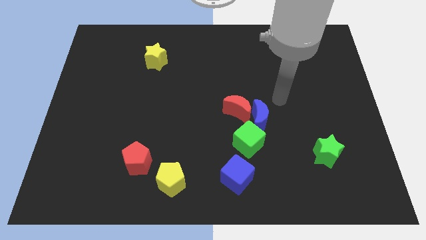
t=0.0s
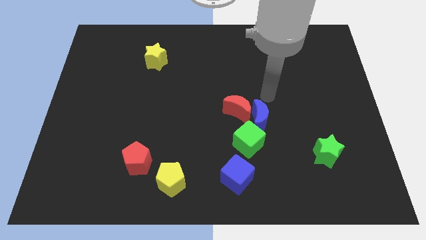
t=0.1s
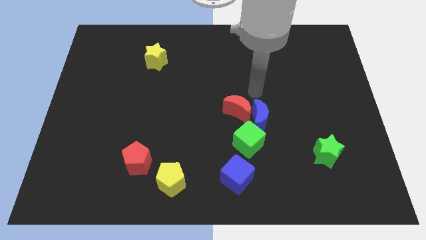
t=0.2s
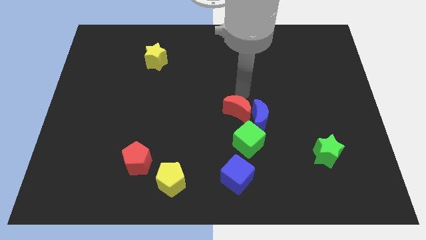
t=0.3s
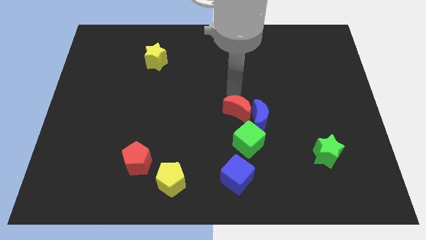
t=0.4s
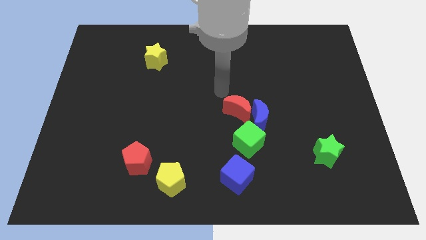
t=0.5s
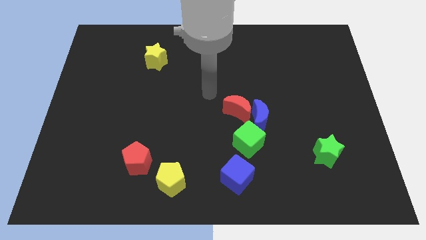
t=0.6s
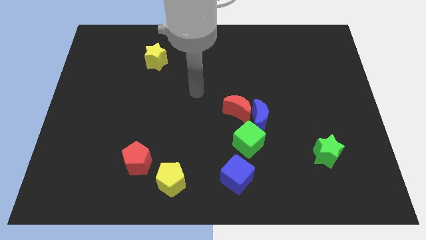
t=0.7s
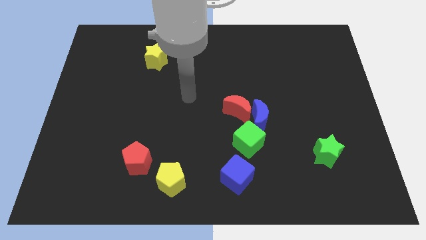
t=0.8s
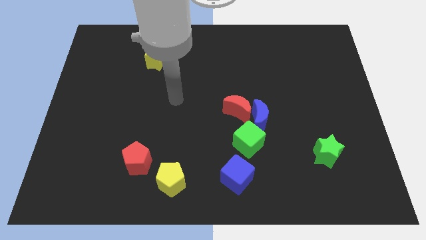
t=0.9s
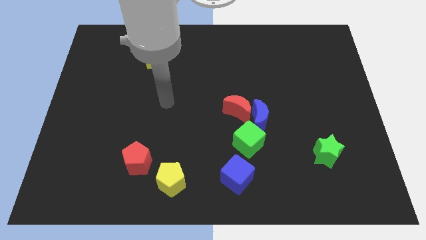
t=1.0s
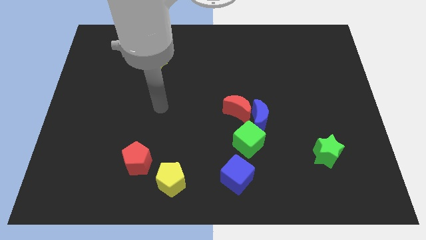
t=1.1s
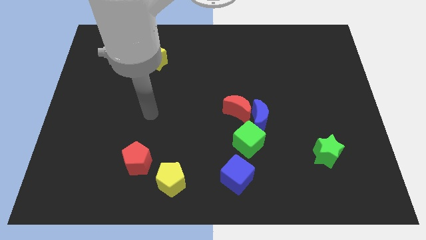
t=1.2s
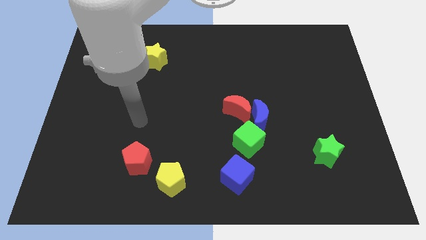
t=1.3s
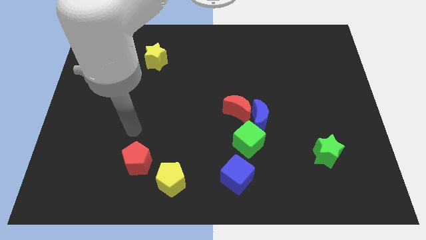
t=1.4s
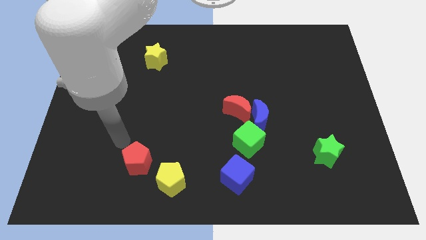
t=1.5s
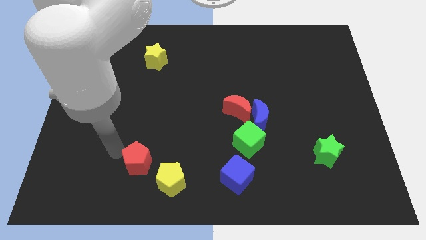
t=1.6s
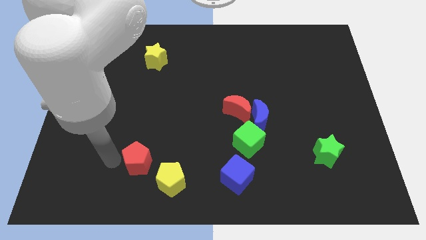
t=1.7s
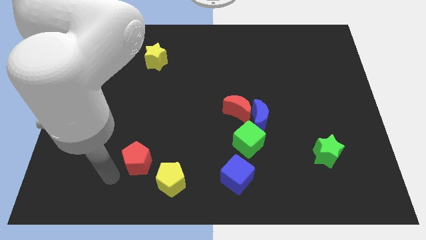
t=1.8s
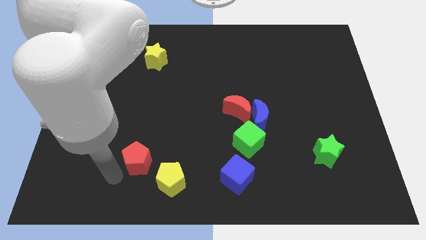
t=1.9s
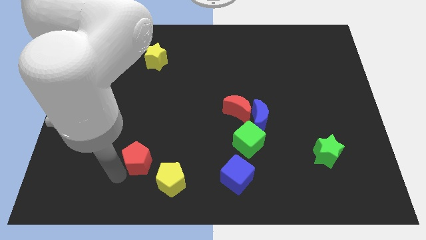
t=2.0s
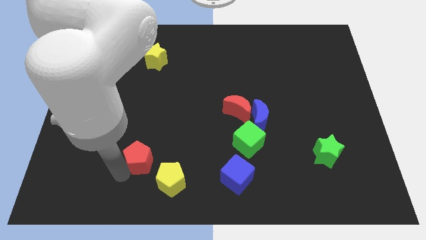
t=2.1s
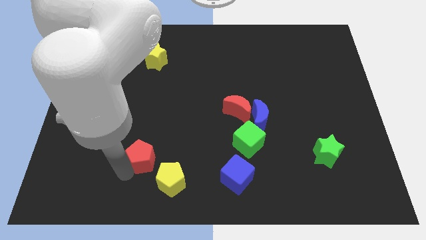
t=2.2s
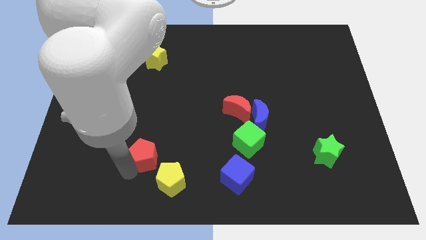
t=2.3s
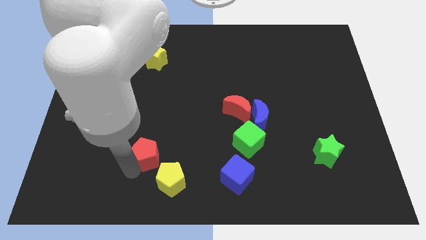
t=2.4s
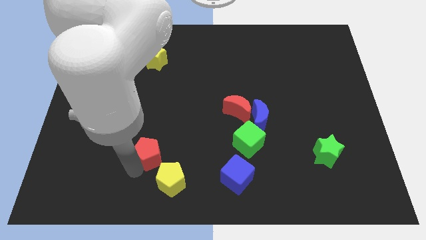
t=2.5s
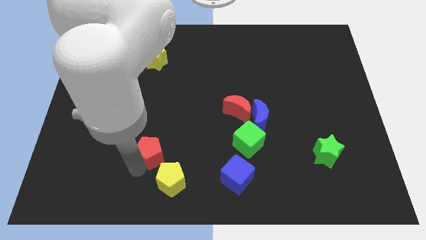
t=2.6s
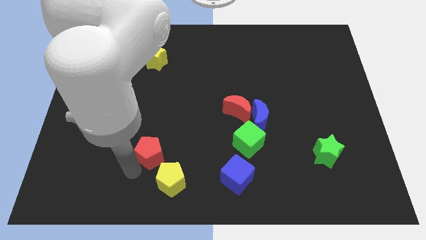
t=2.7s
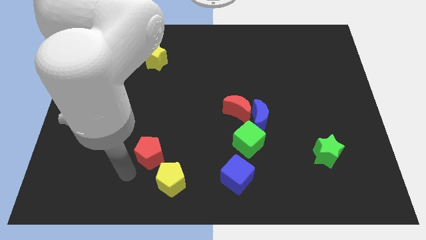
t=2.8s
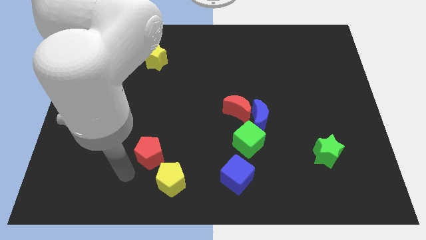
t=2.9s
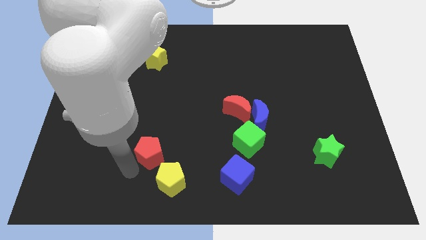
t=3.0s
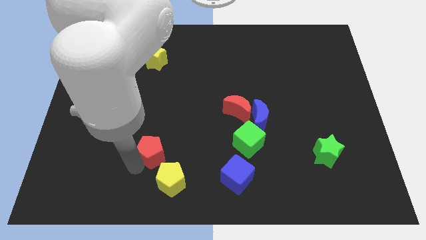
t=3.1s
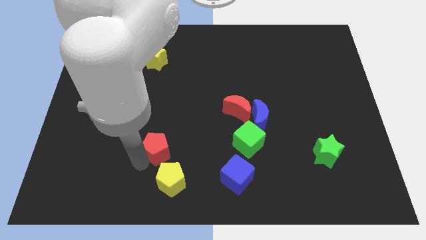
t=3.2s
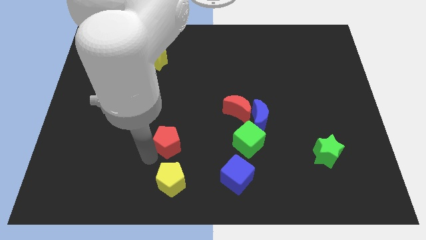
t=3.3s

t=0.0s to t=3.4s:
move the red pentagon up and right a bit

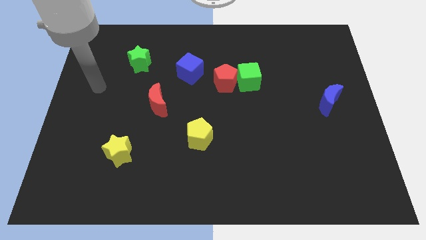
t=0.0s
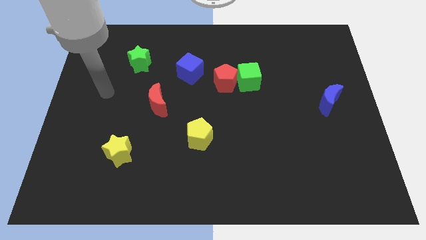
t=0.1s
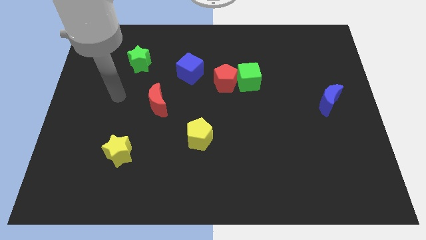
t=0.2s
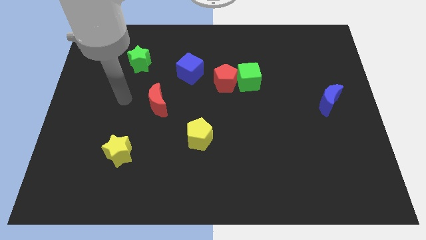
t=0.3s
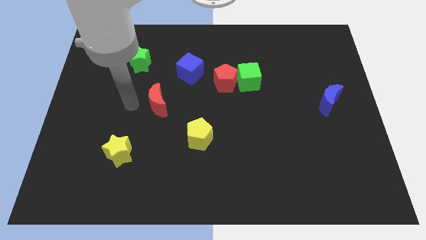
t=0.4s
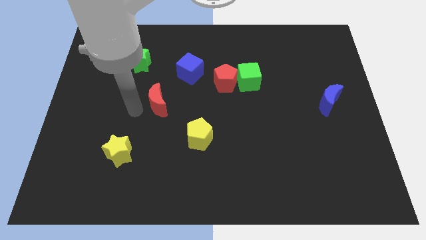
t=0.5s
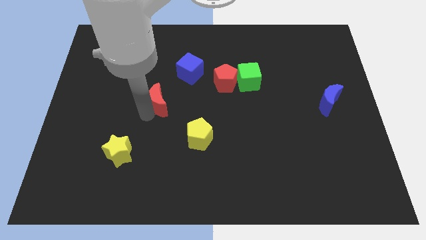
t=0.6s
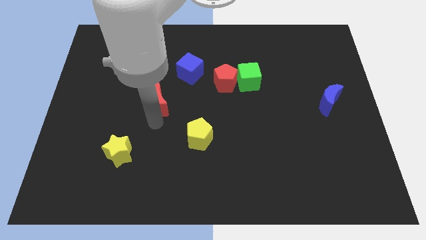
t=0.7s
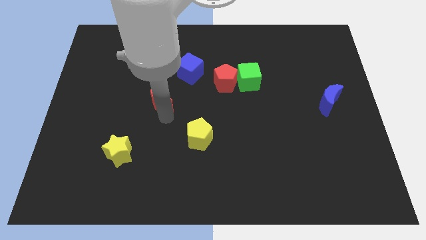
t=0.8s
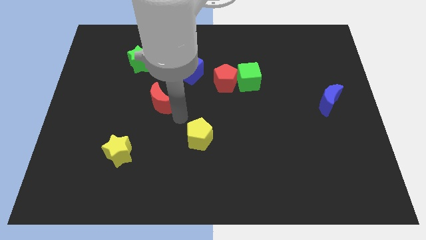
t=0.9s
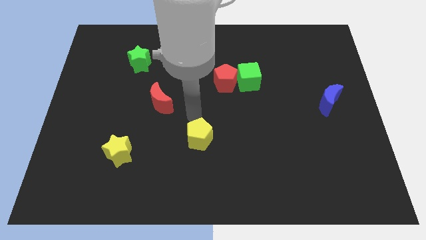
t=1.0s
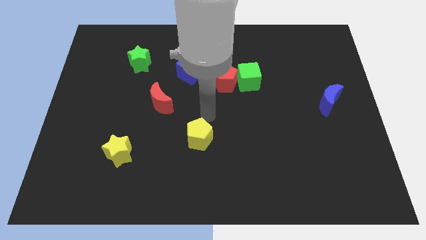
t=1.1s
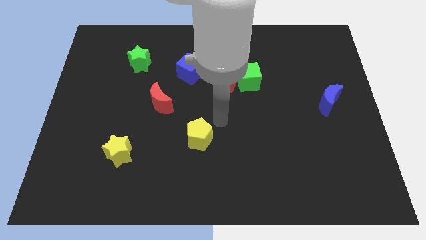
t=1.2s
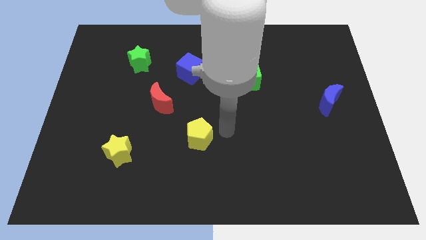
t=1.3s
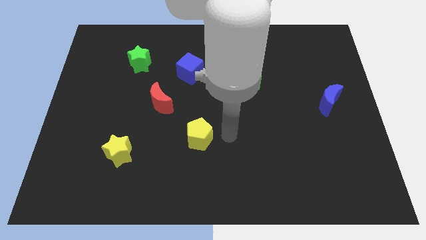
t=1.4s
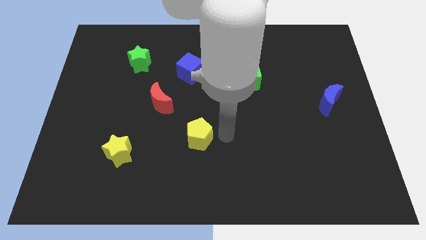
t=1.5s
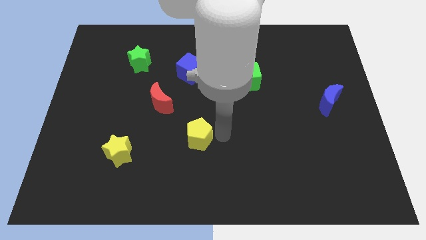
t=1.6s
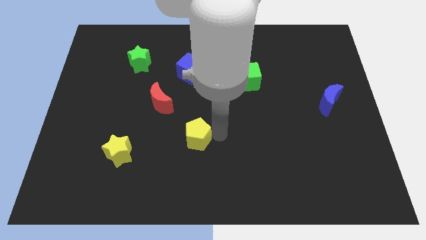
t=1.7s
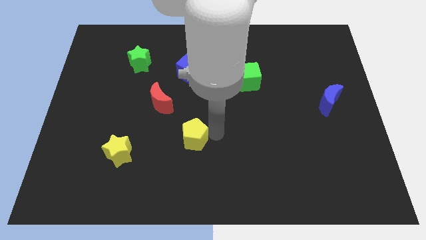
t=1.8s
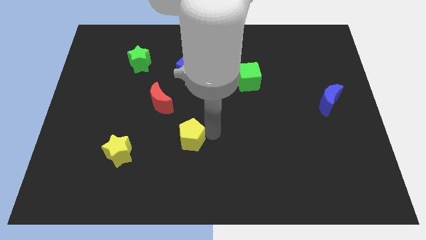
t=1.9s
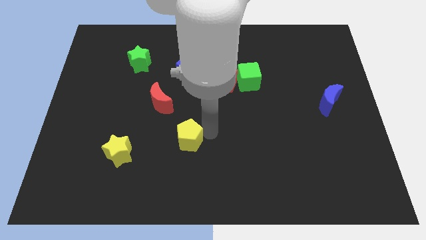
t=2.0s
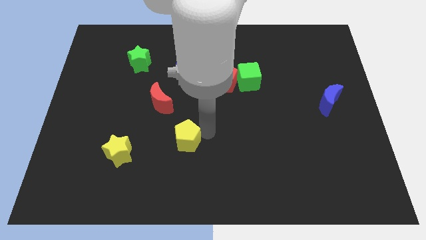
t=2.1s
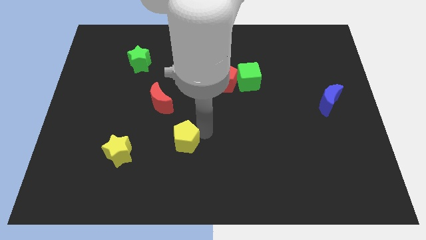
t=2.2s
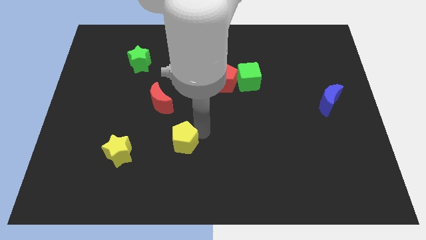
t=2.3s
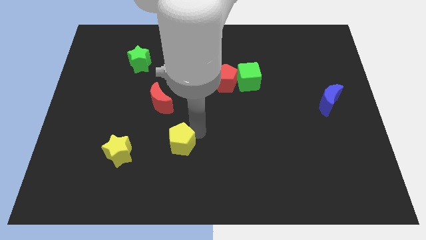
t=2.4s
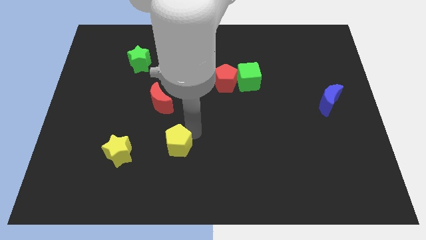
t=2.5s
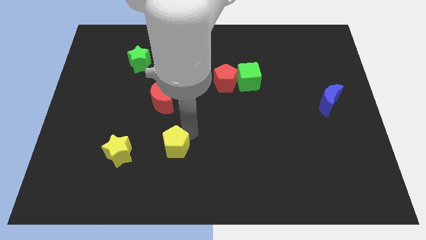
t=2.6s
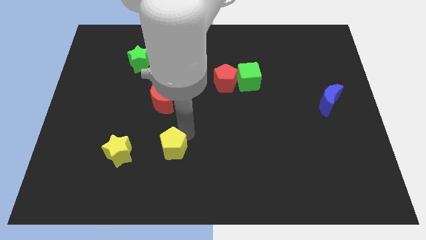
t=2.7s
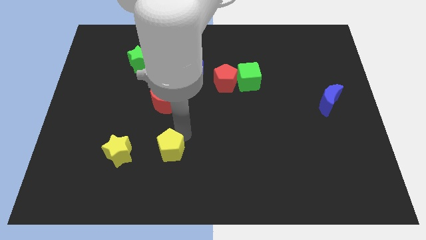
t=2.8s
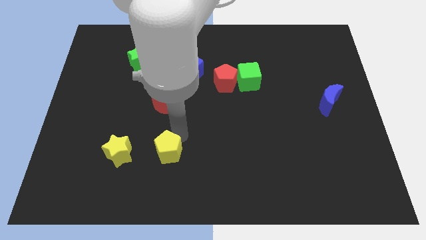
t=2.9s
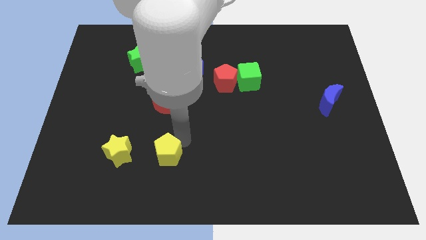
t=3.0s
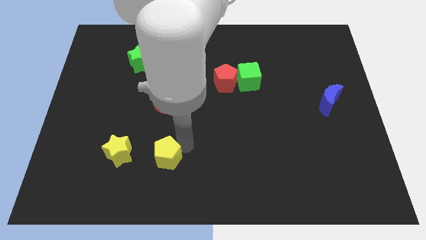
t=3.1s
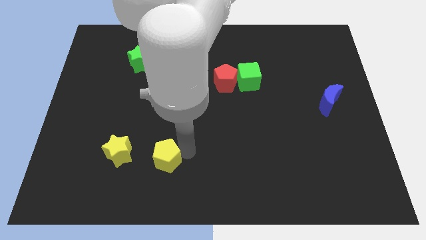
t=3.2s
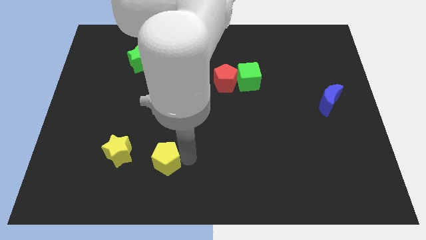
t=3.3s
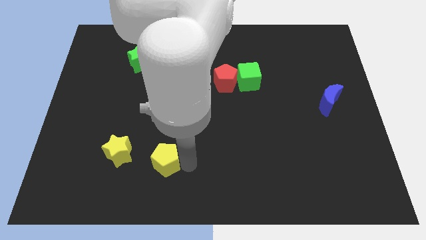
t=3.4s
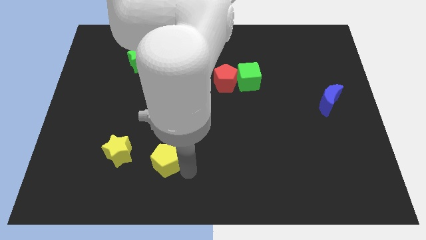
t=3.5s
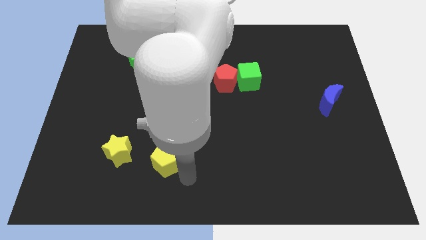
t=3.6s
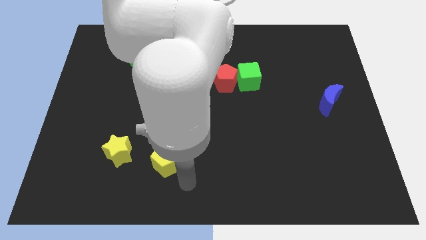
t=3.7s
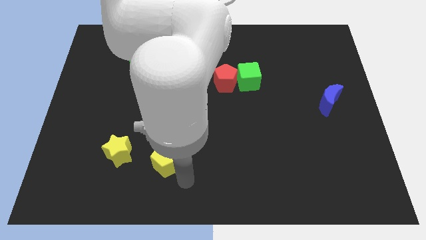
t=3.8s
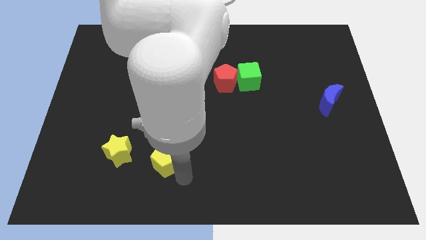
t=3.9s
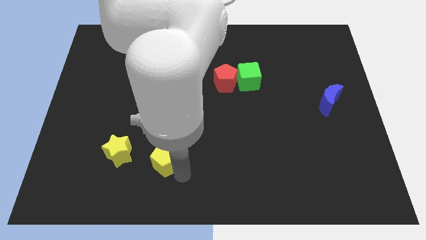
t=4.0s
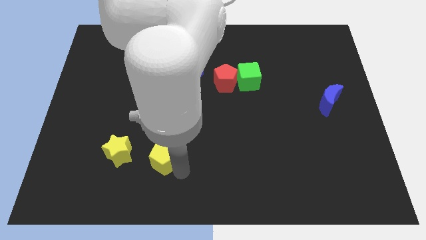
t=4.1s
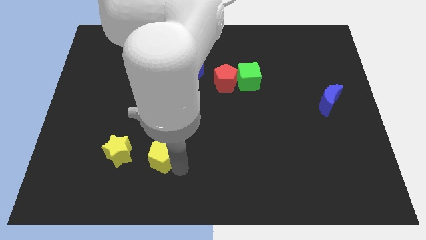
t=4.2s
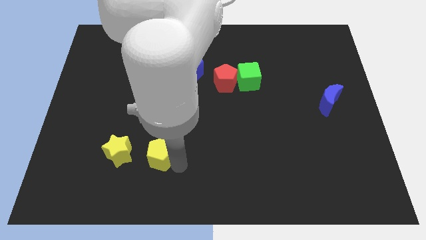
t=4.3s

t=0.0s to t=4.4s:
push the yellow pentagon left somewhat
